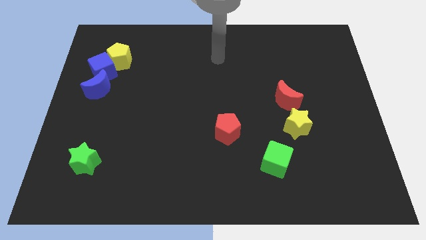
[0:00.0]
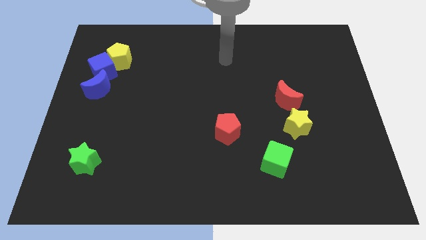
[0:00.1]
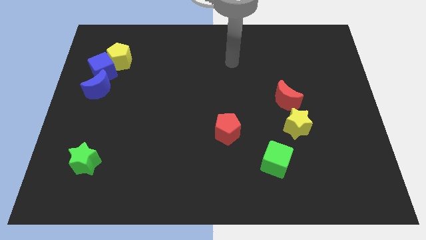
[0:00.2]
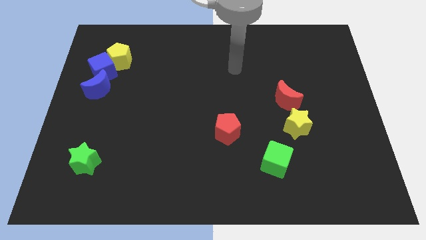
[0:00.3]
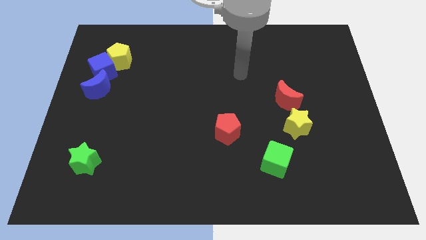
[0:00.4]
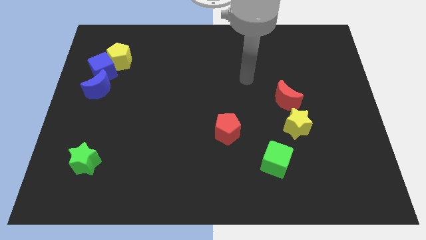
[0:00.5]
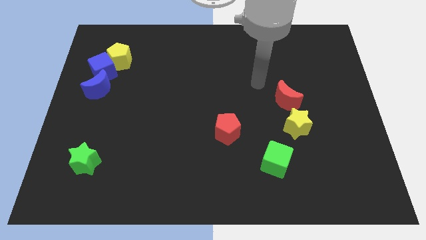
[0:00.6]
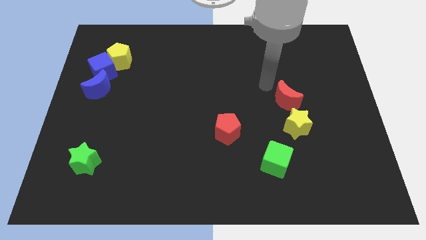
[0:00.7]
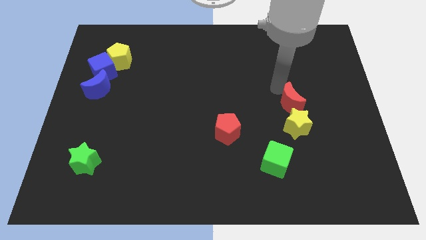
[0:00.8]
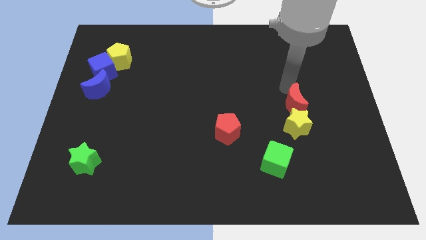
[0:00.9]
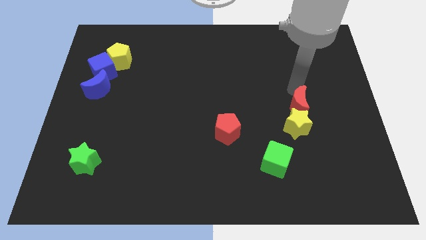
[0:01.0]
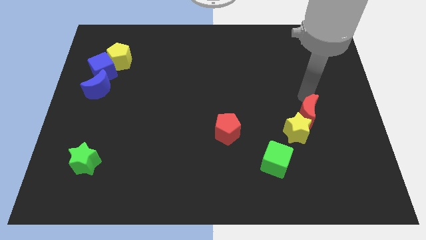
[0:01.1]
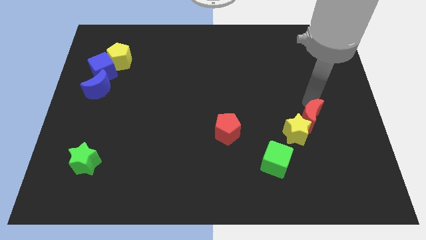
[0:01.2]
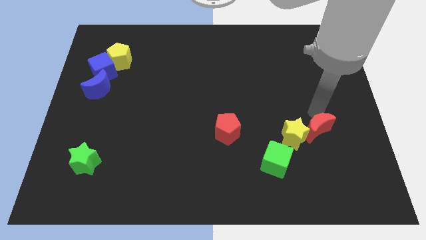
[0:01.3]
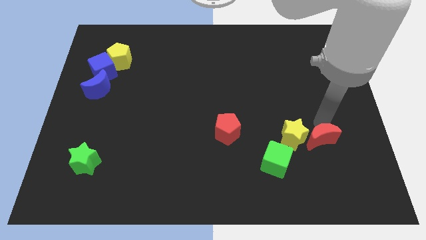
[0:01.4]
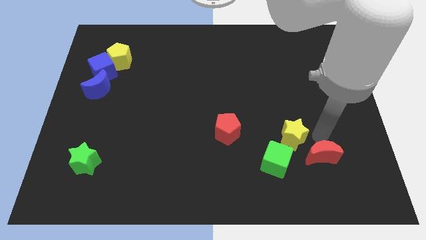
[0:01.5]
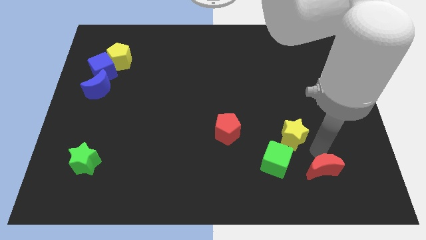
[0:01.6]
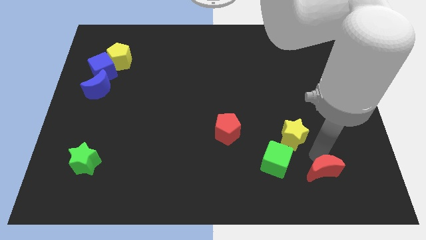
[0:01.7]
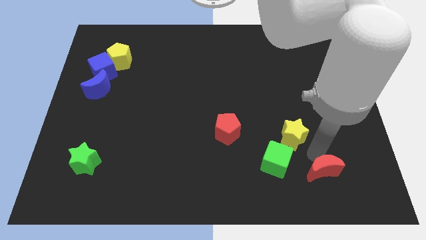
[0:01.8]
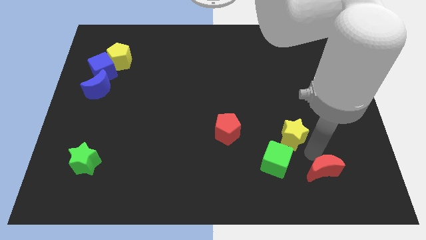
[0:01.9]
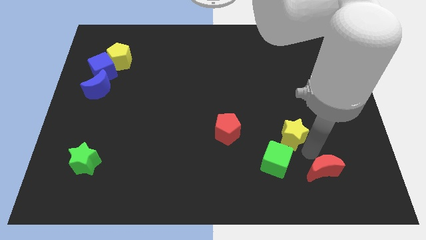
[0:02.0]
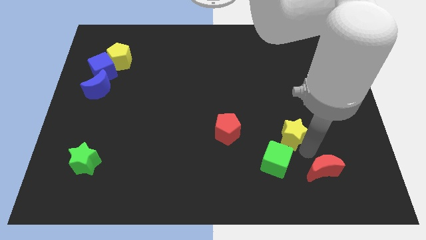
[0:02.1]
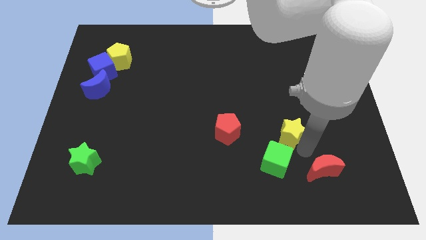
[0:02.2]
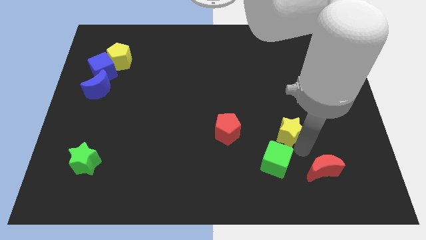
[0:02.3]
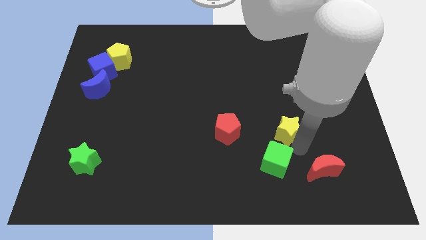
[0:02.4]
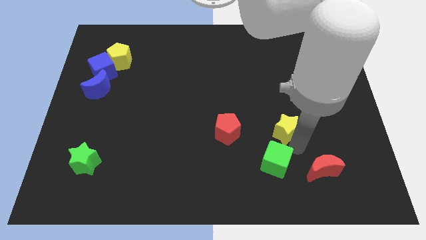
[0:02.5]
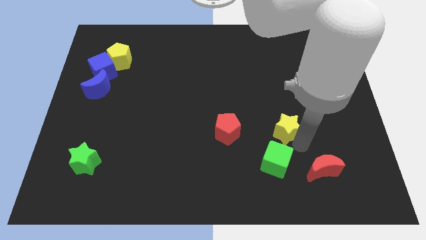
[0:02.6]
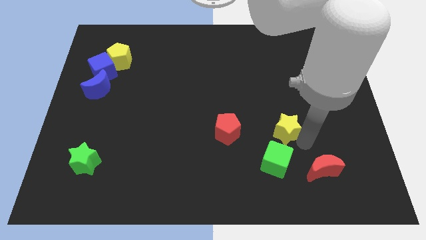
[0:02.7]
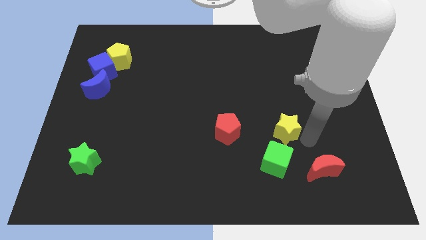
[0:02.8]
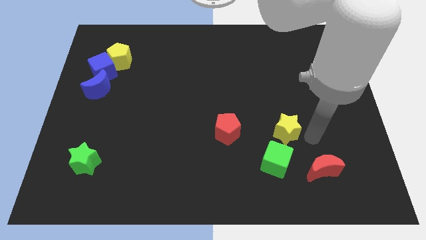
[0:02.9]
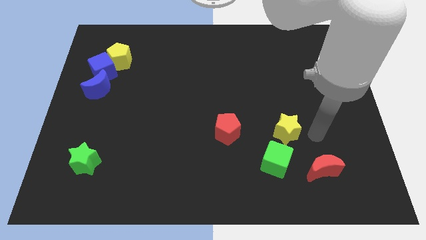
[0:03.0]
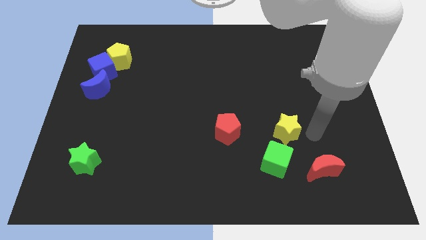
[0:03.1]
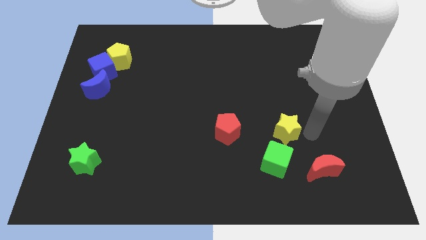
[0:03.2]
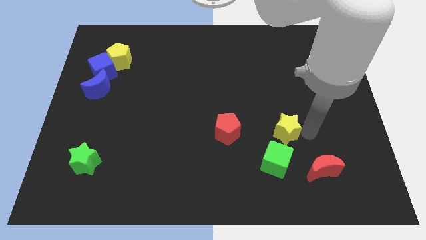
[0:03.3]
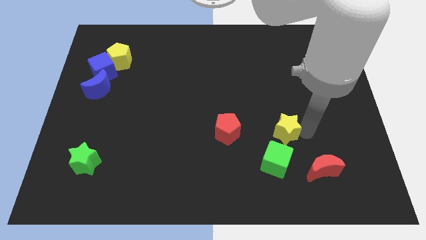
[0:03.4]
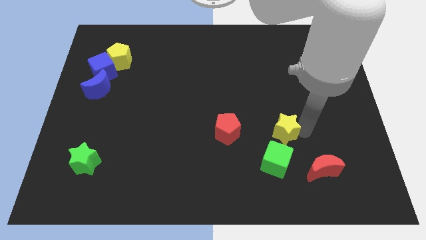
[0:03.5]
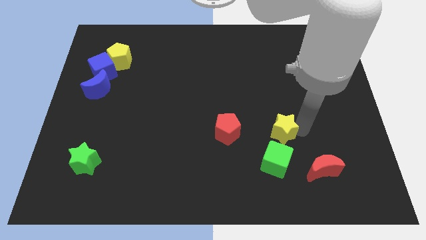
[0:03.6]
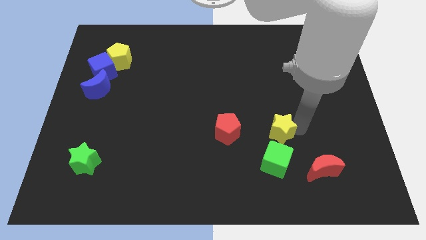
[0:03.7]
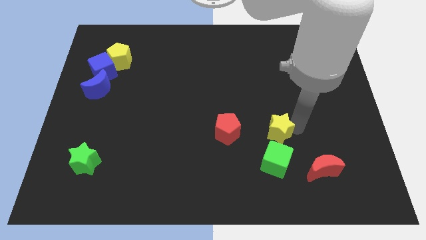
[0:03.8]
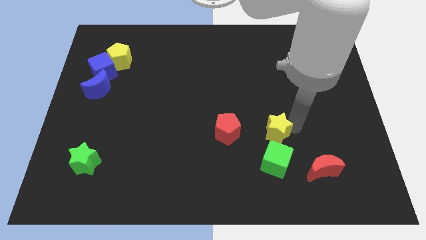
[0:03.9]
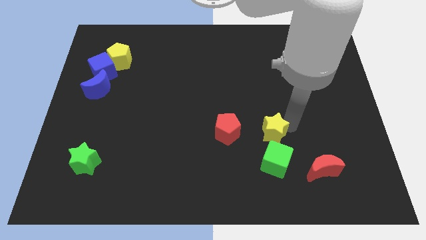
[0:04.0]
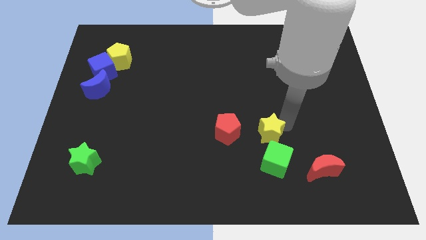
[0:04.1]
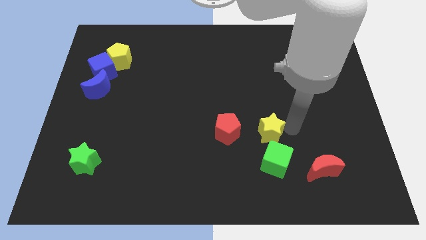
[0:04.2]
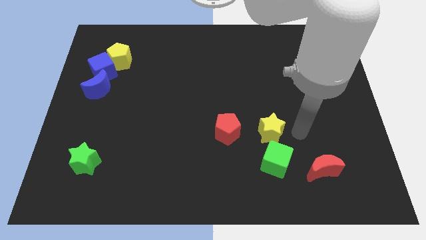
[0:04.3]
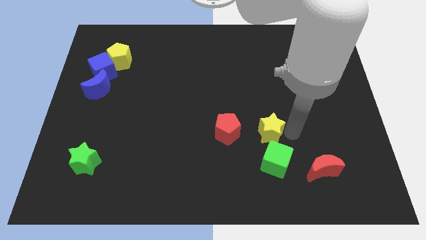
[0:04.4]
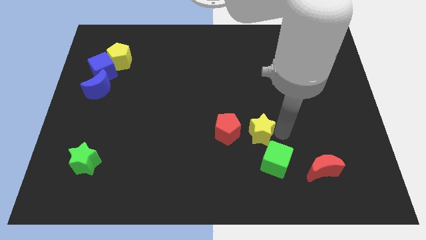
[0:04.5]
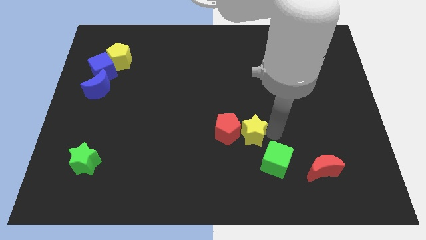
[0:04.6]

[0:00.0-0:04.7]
slide the yellow star next to the red pentagon

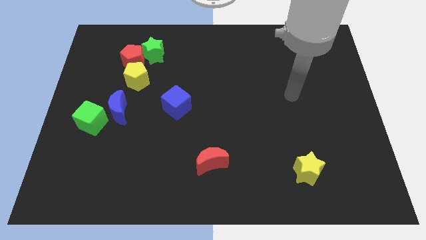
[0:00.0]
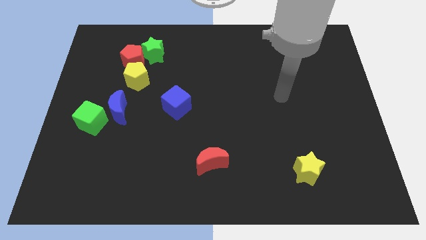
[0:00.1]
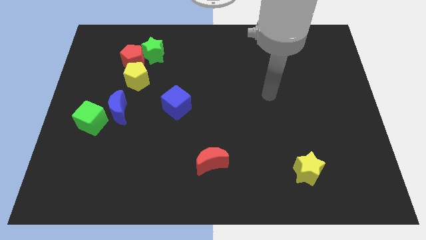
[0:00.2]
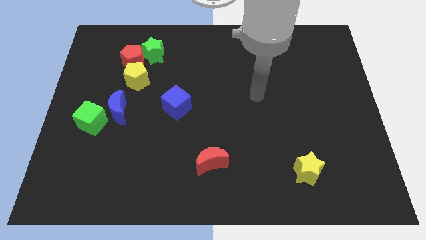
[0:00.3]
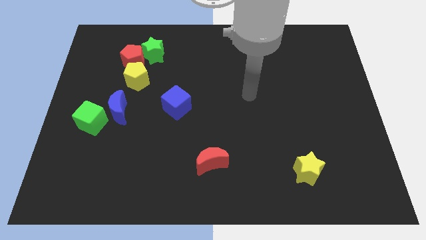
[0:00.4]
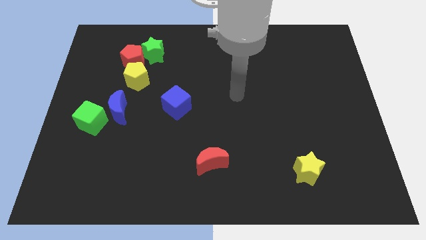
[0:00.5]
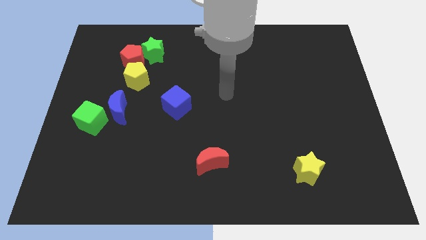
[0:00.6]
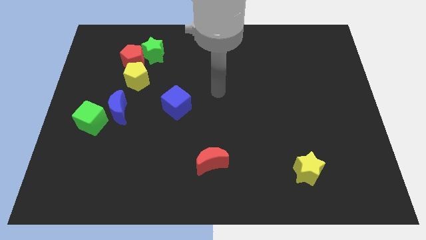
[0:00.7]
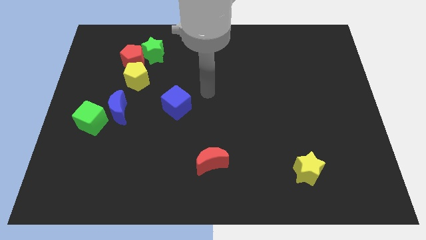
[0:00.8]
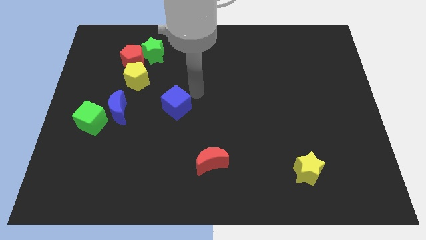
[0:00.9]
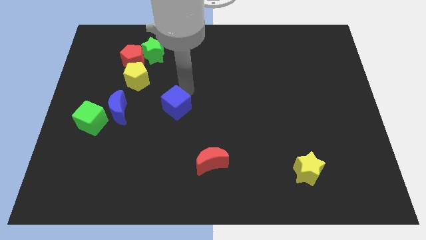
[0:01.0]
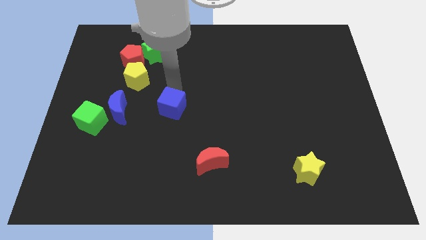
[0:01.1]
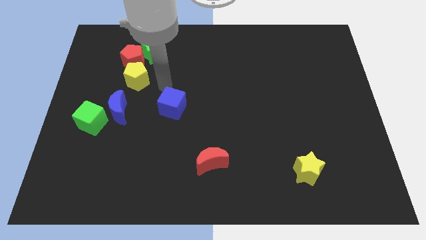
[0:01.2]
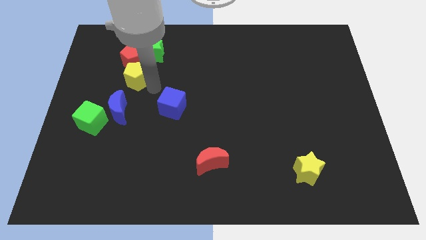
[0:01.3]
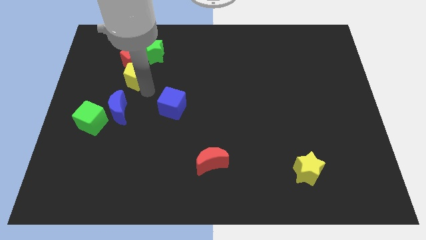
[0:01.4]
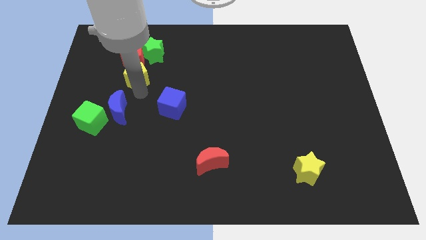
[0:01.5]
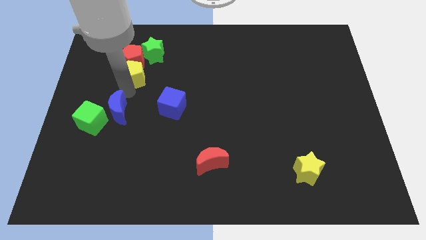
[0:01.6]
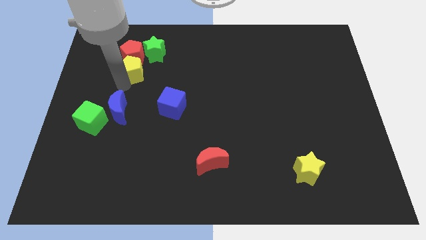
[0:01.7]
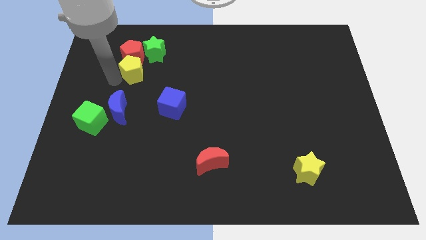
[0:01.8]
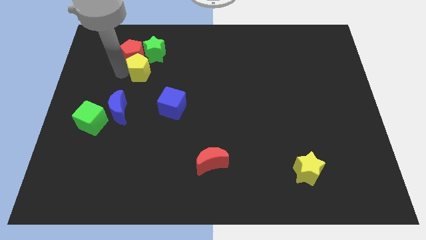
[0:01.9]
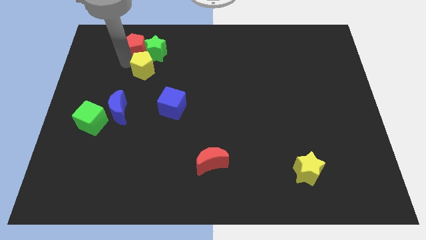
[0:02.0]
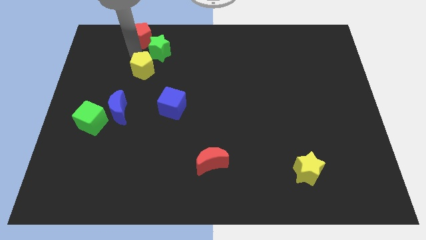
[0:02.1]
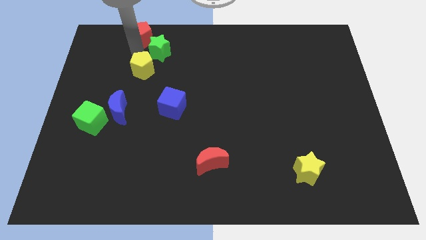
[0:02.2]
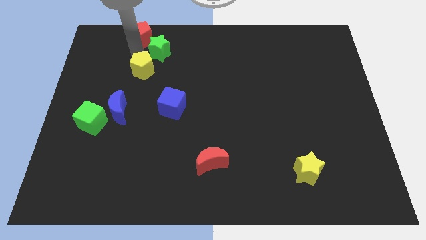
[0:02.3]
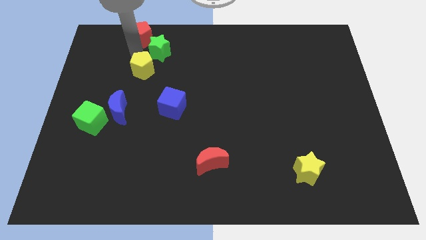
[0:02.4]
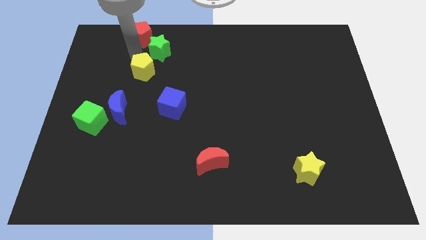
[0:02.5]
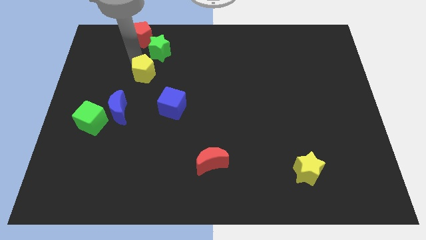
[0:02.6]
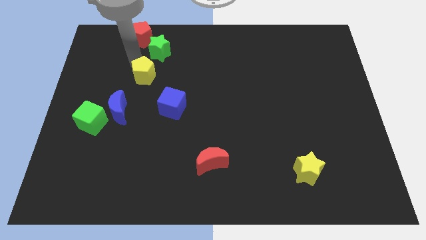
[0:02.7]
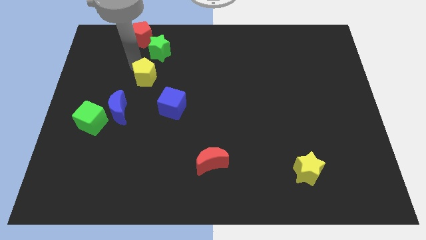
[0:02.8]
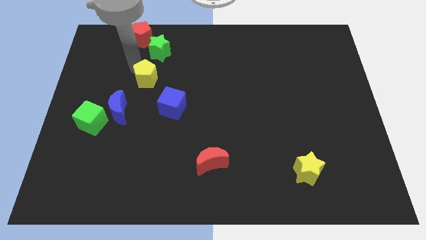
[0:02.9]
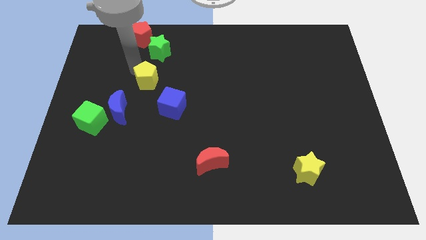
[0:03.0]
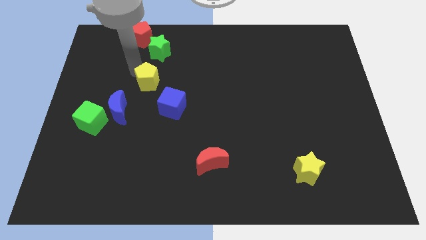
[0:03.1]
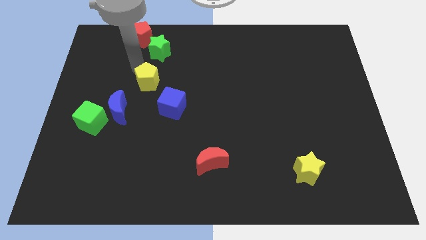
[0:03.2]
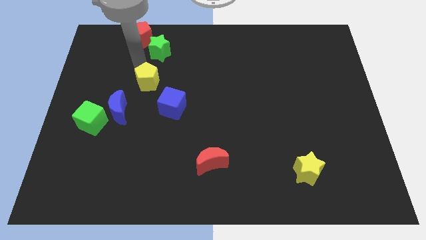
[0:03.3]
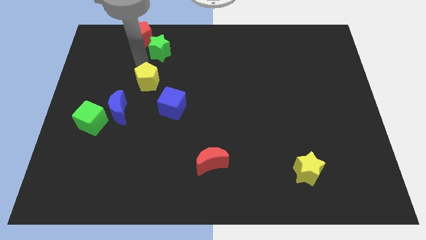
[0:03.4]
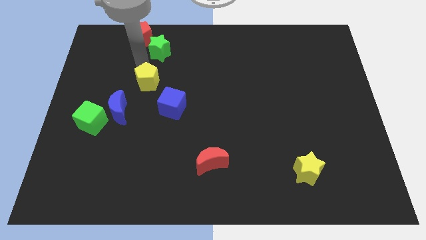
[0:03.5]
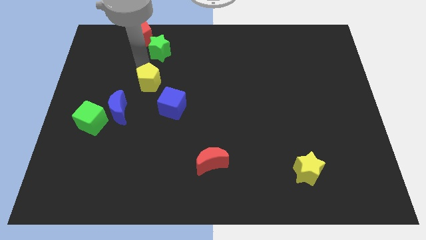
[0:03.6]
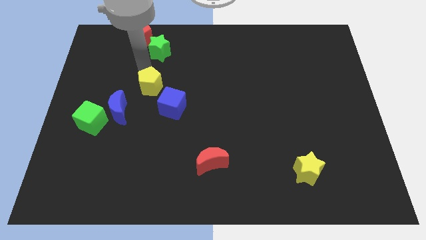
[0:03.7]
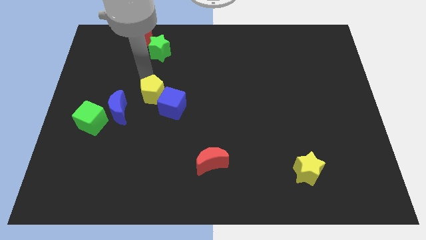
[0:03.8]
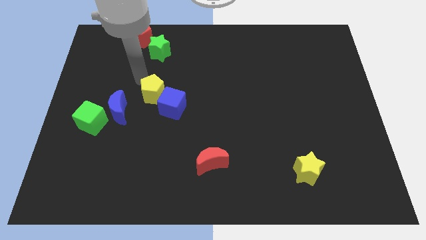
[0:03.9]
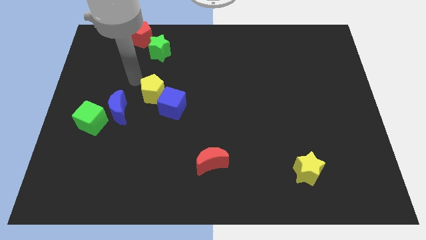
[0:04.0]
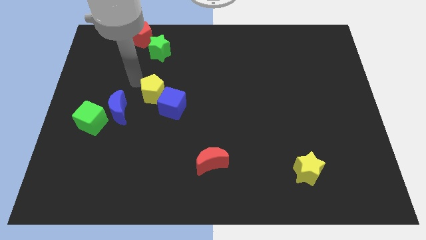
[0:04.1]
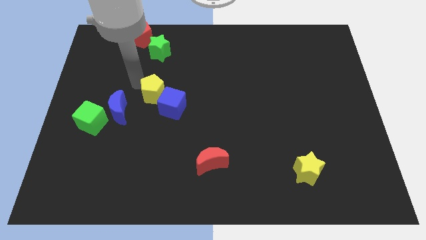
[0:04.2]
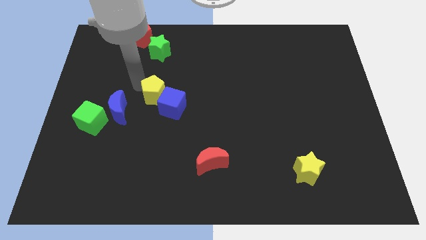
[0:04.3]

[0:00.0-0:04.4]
put the yellow pentagon next to the blue cube
